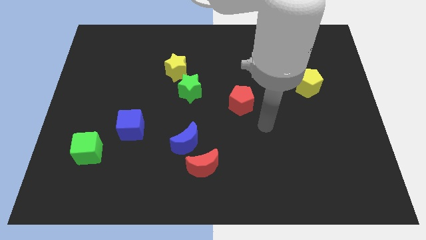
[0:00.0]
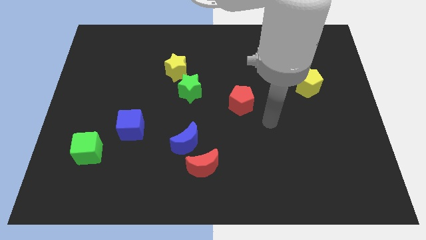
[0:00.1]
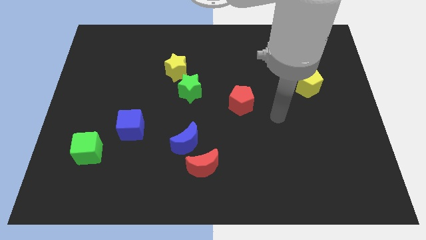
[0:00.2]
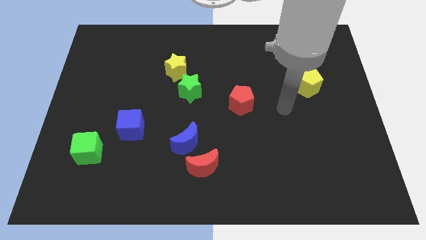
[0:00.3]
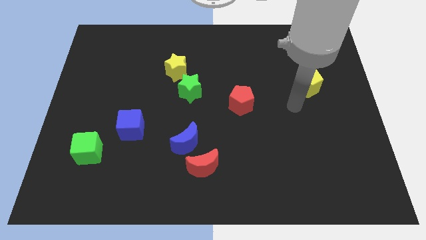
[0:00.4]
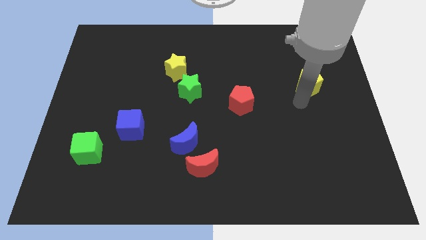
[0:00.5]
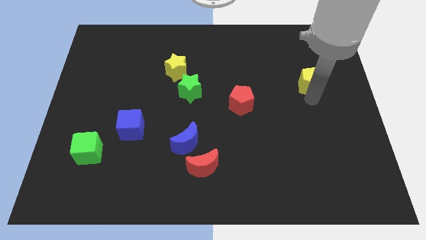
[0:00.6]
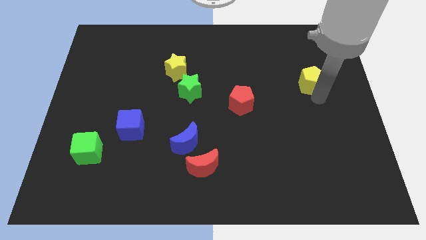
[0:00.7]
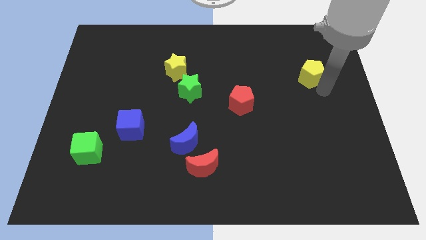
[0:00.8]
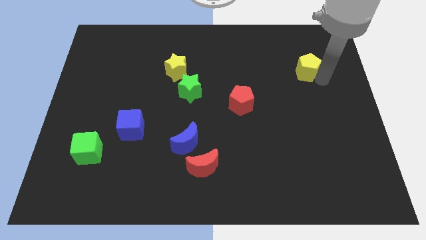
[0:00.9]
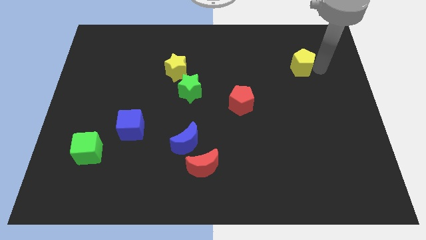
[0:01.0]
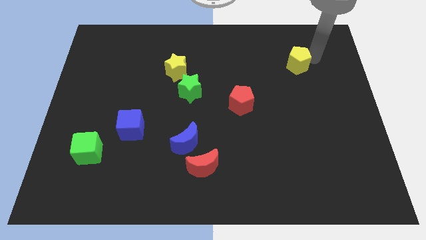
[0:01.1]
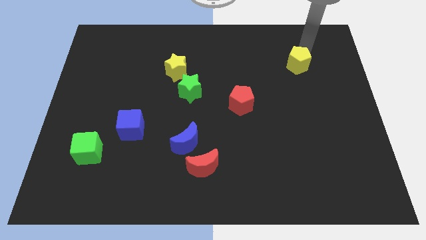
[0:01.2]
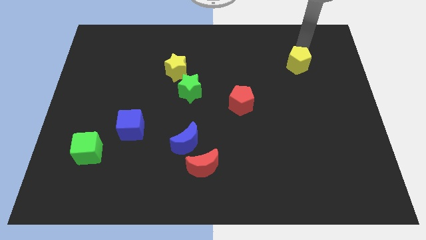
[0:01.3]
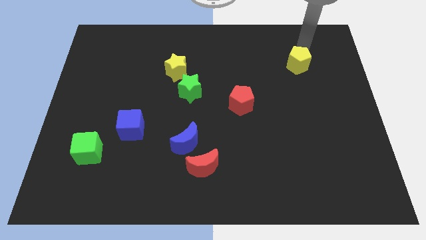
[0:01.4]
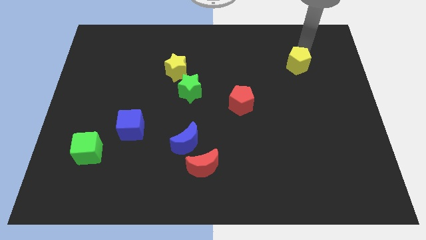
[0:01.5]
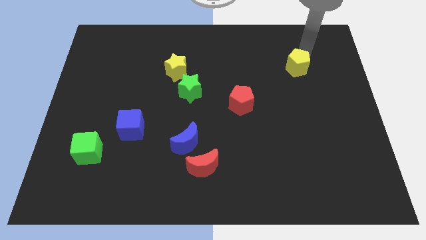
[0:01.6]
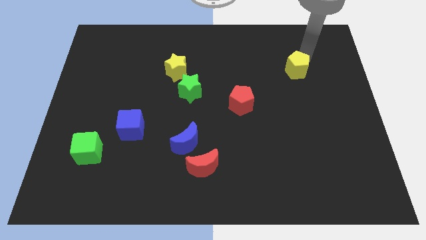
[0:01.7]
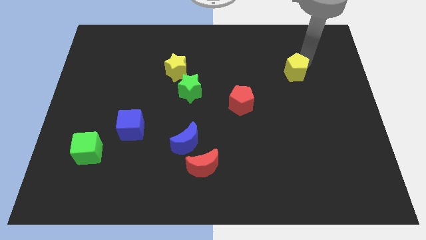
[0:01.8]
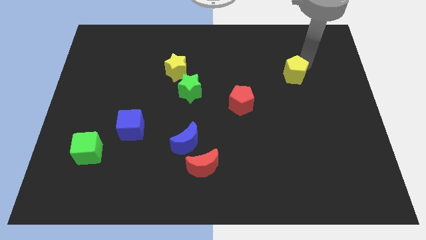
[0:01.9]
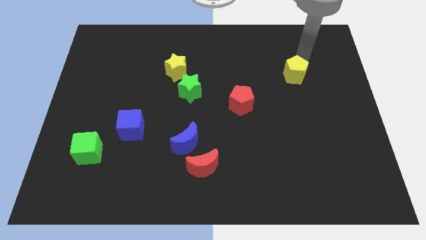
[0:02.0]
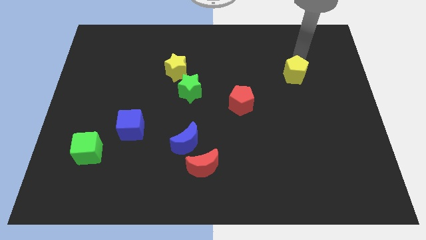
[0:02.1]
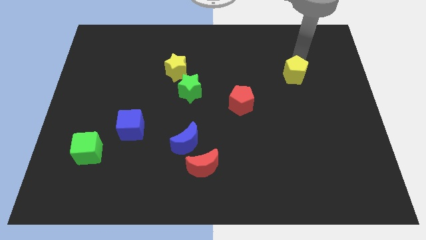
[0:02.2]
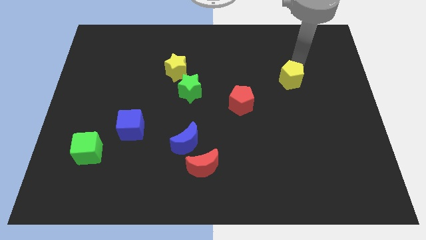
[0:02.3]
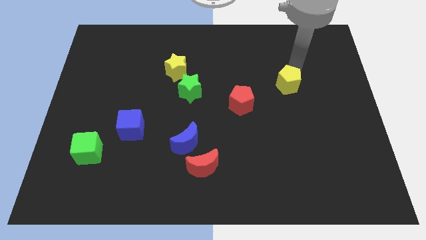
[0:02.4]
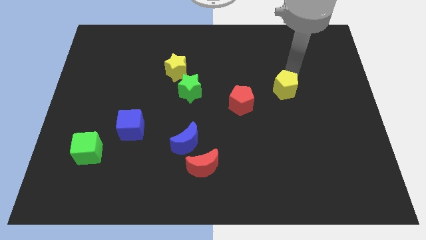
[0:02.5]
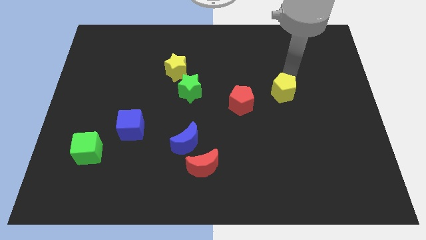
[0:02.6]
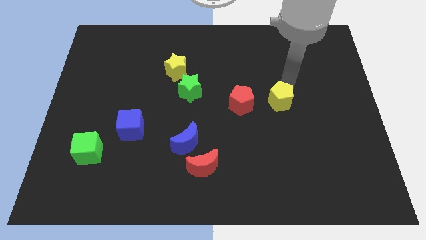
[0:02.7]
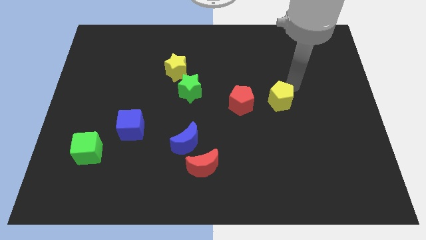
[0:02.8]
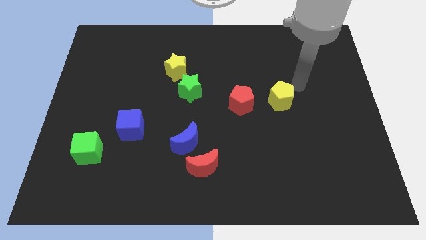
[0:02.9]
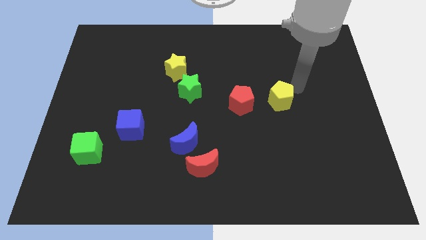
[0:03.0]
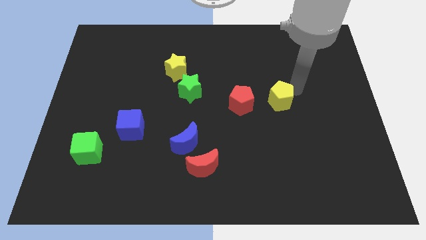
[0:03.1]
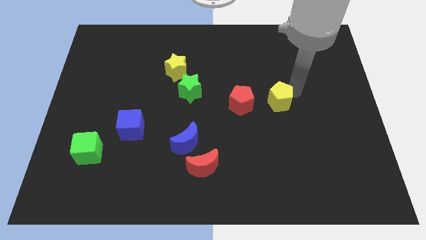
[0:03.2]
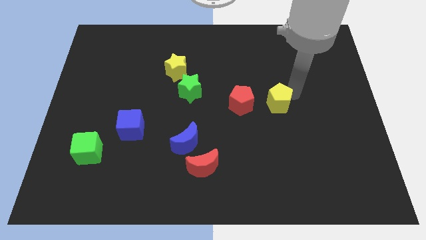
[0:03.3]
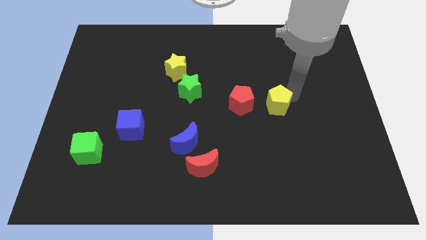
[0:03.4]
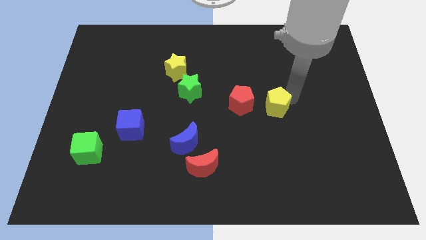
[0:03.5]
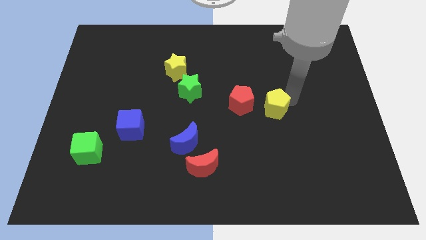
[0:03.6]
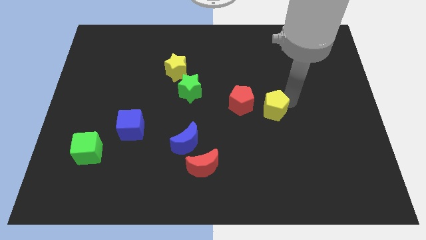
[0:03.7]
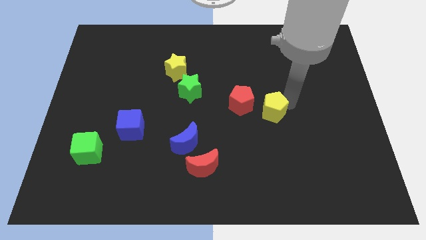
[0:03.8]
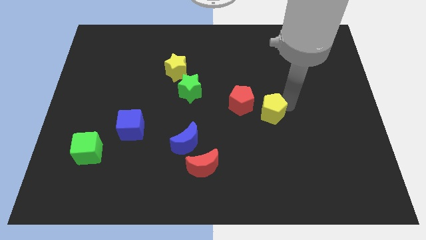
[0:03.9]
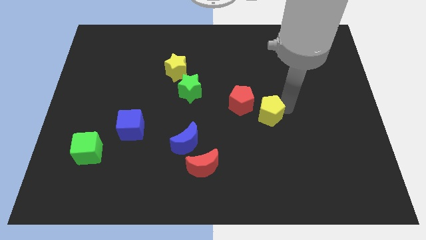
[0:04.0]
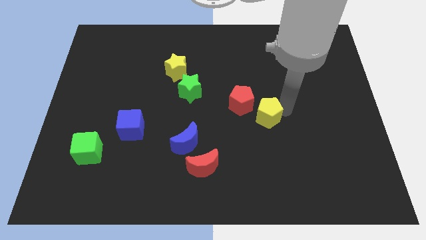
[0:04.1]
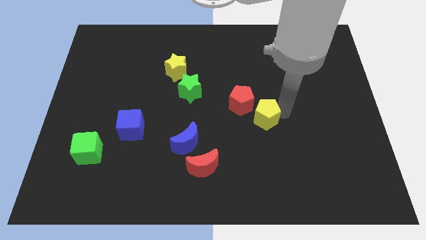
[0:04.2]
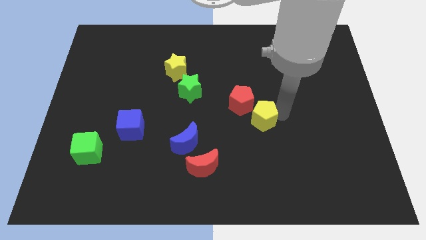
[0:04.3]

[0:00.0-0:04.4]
push the yellow pentagon to the bottom of the red pentagon

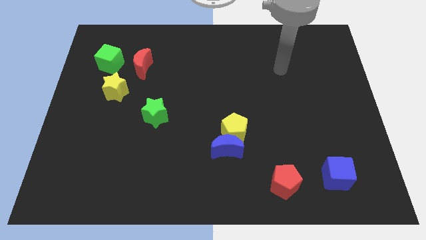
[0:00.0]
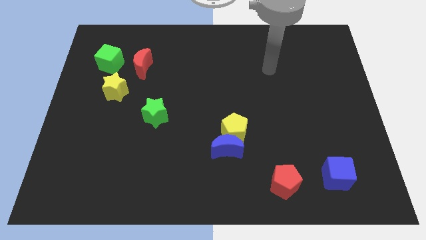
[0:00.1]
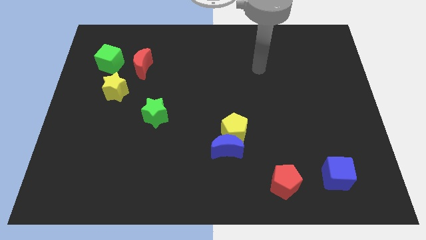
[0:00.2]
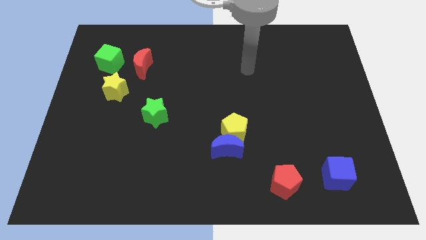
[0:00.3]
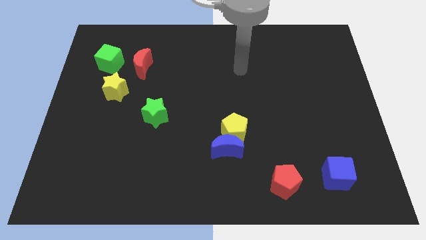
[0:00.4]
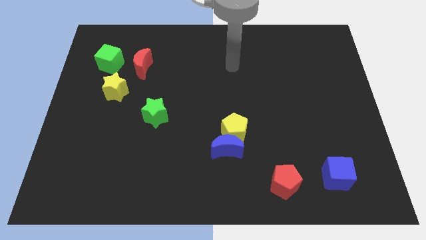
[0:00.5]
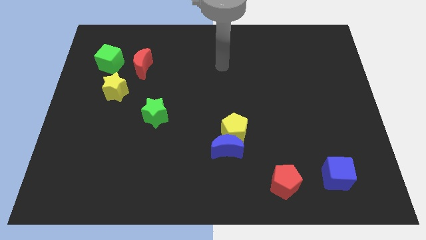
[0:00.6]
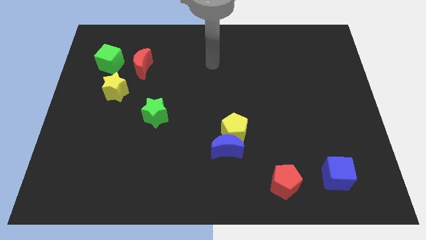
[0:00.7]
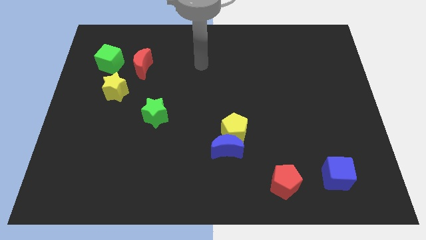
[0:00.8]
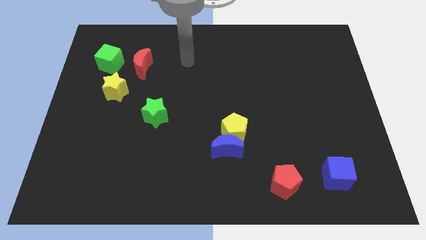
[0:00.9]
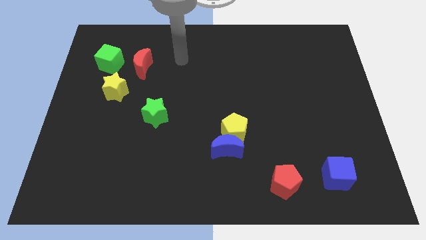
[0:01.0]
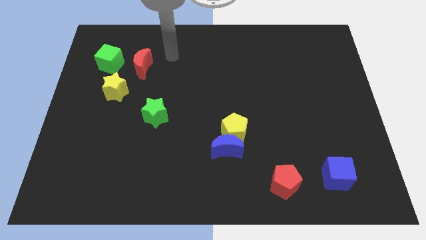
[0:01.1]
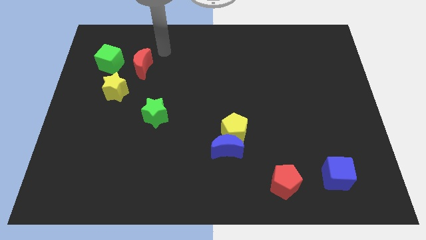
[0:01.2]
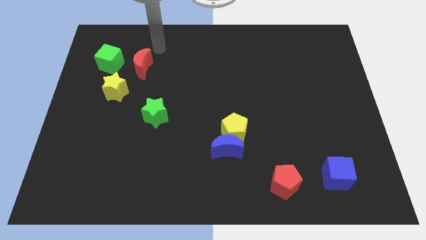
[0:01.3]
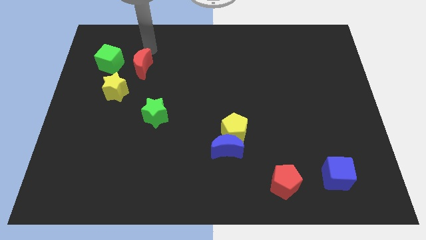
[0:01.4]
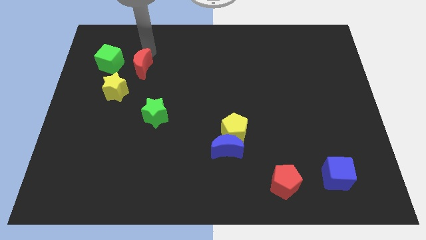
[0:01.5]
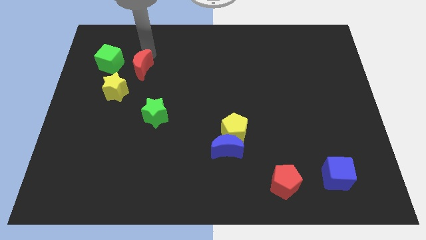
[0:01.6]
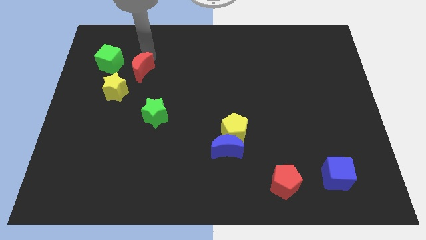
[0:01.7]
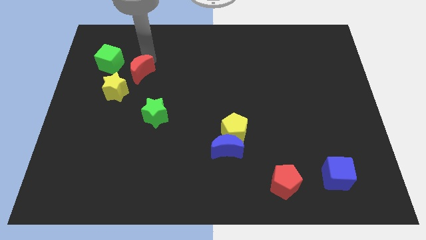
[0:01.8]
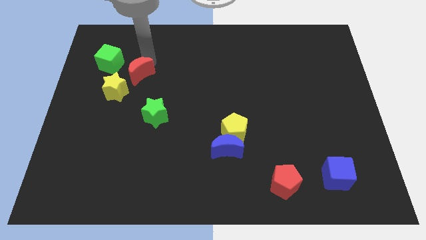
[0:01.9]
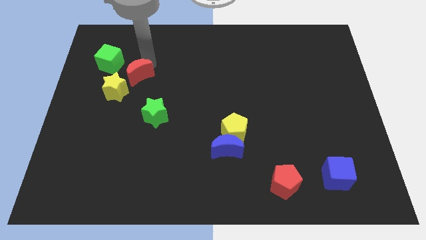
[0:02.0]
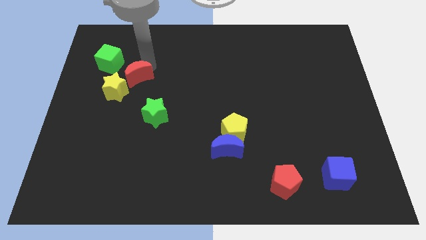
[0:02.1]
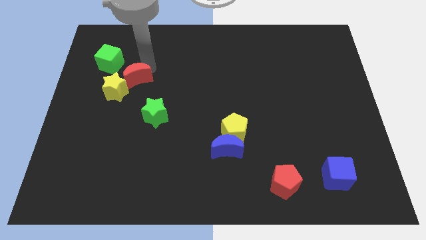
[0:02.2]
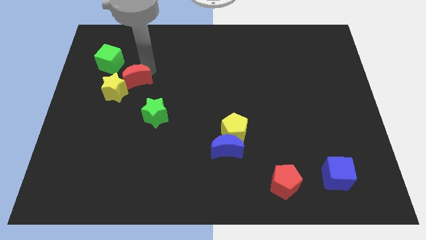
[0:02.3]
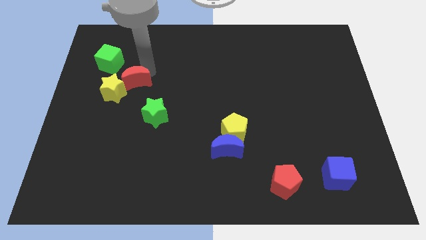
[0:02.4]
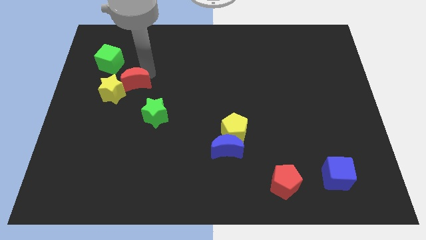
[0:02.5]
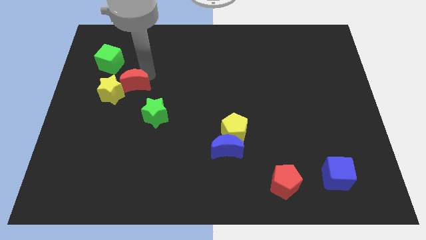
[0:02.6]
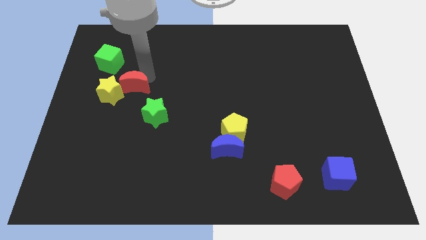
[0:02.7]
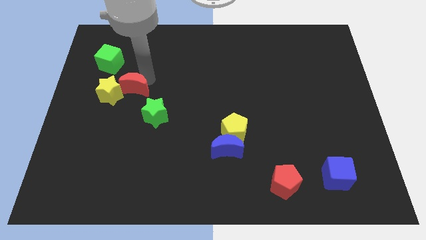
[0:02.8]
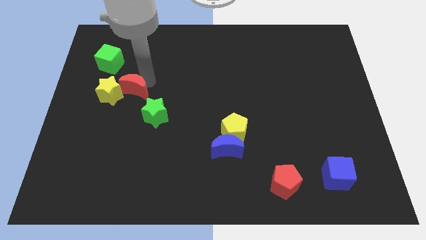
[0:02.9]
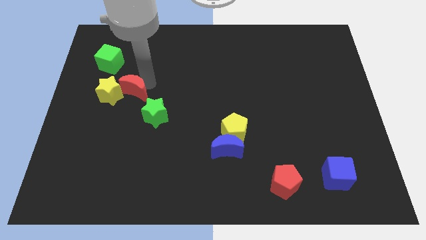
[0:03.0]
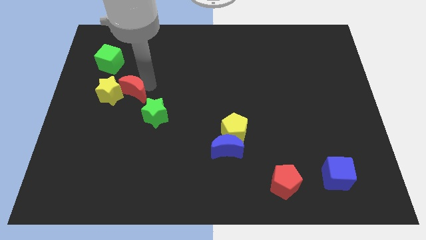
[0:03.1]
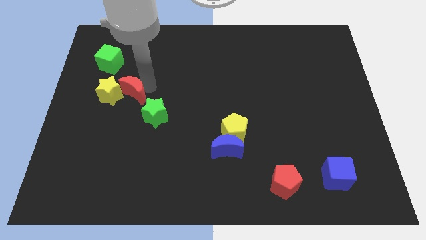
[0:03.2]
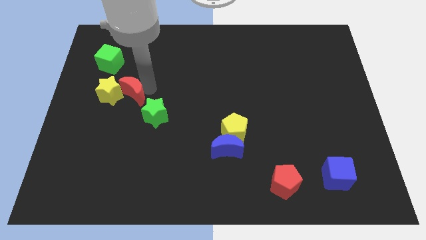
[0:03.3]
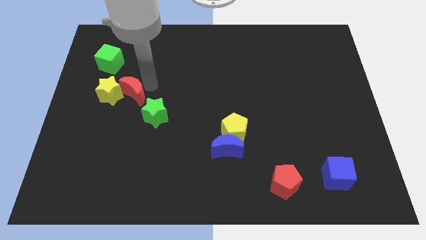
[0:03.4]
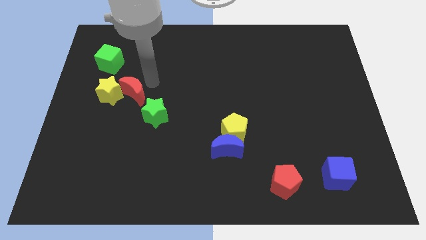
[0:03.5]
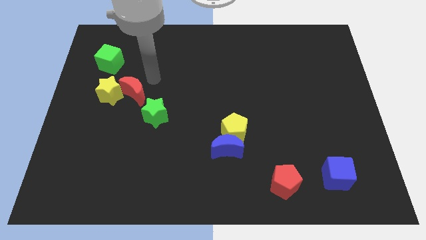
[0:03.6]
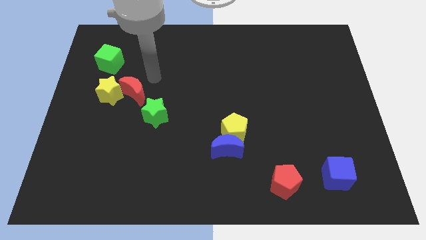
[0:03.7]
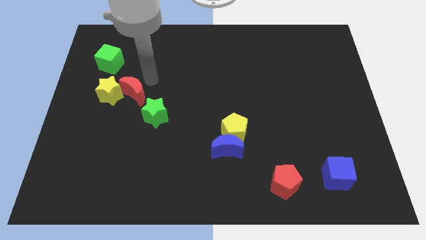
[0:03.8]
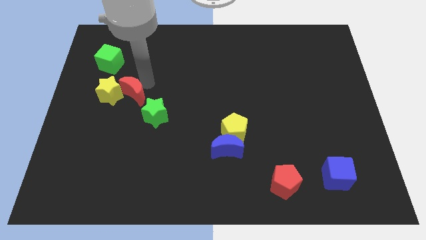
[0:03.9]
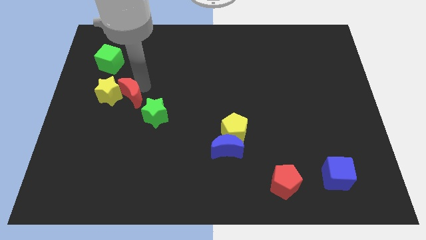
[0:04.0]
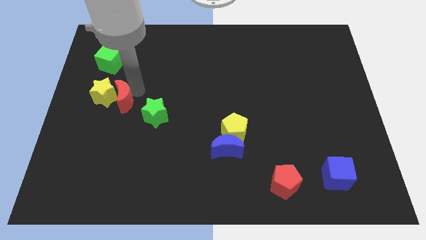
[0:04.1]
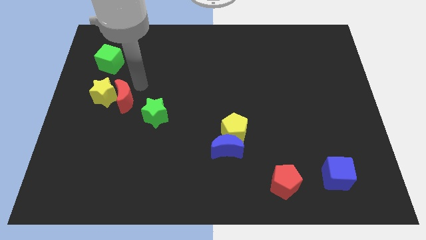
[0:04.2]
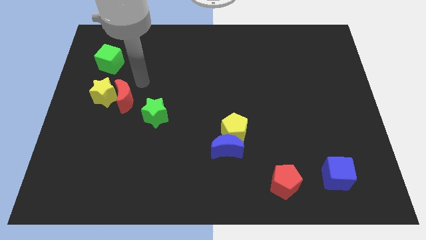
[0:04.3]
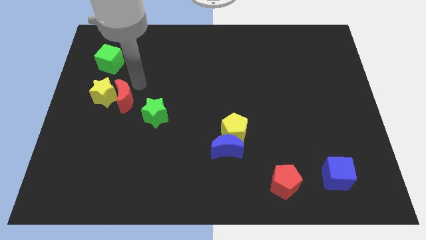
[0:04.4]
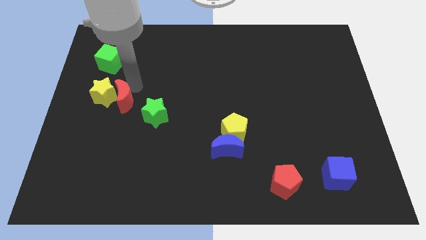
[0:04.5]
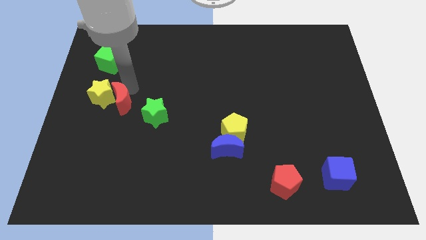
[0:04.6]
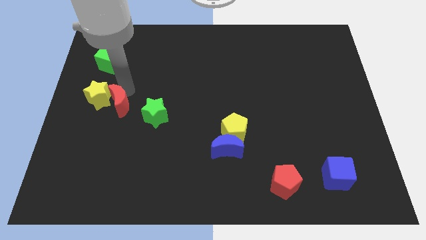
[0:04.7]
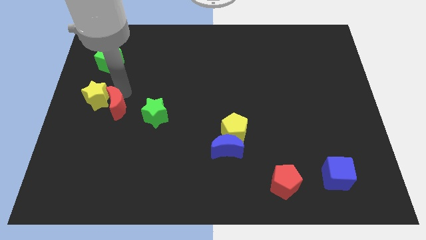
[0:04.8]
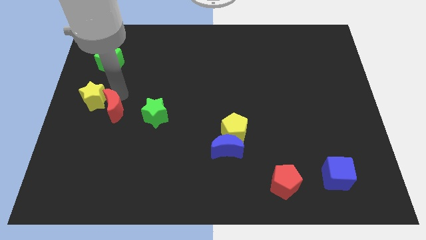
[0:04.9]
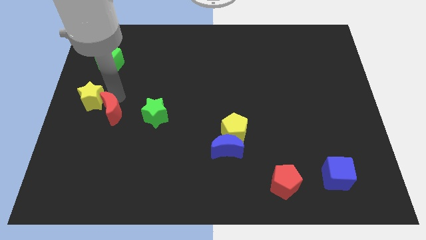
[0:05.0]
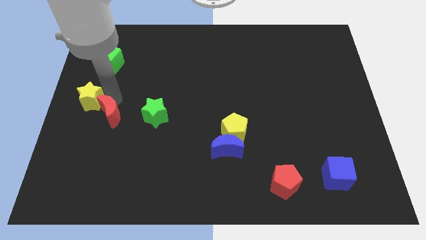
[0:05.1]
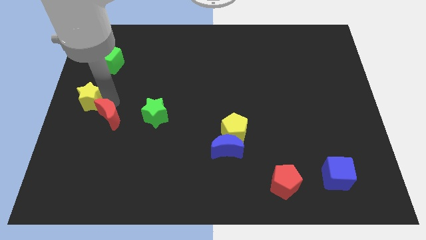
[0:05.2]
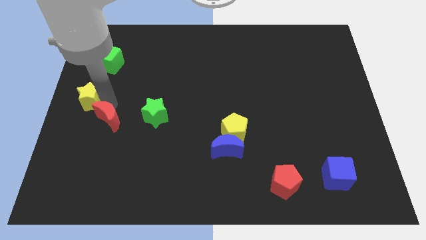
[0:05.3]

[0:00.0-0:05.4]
move the red moon below the yellow star
